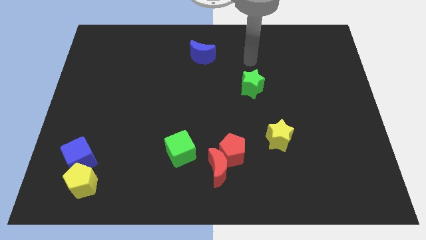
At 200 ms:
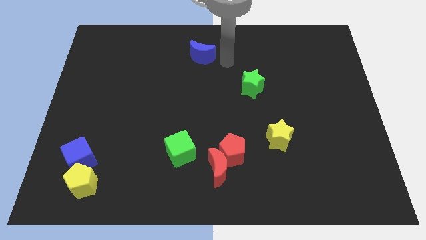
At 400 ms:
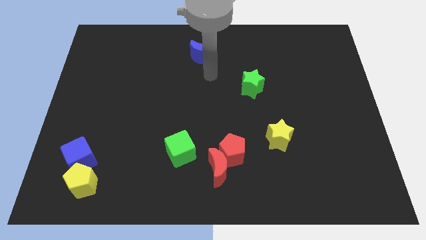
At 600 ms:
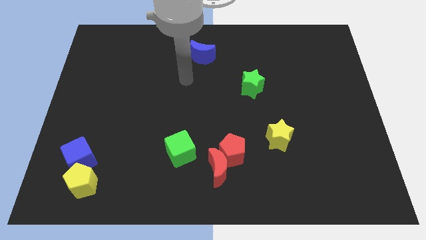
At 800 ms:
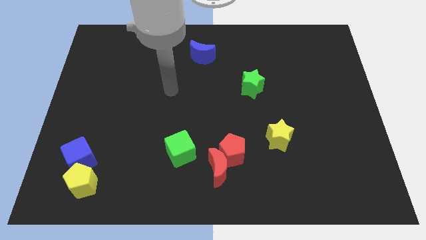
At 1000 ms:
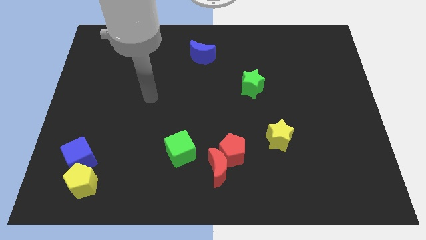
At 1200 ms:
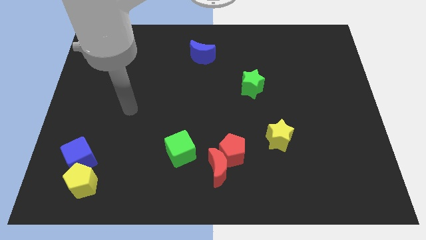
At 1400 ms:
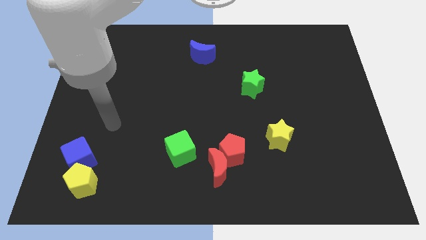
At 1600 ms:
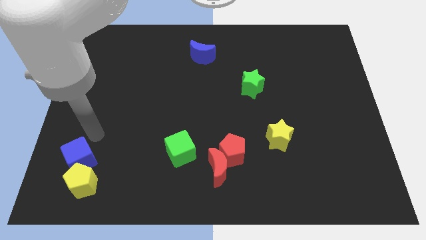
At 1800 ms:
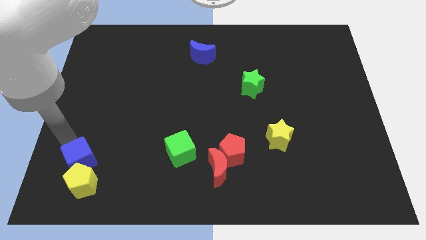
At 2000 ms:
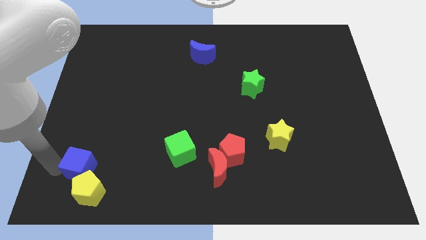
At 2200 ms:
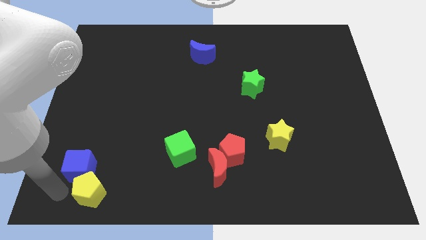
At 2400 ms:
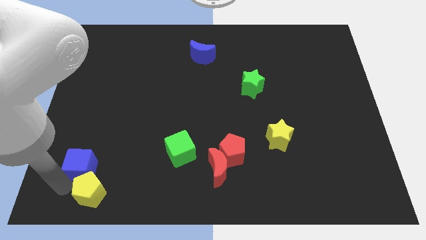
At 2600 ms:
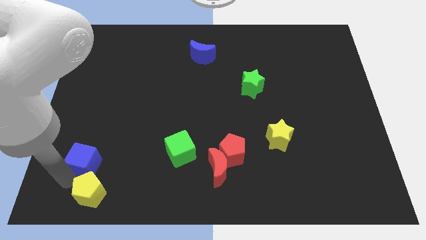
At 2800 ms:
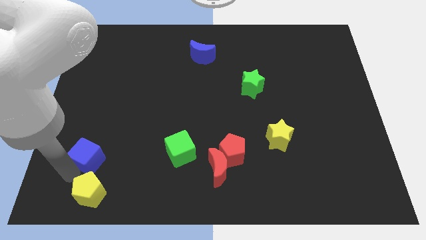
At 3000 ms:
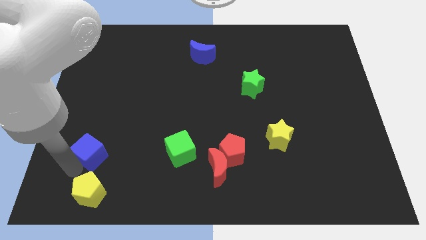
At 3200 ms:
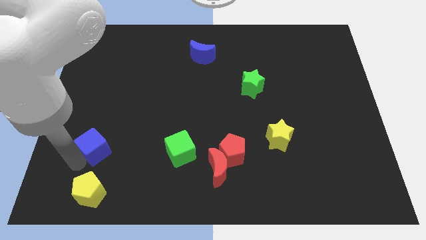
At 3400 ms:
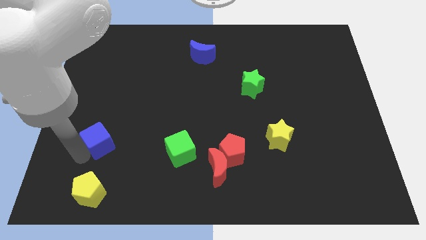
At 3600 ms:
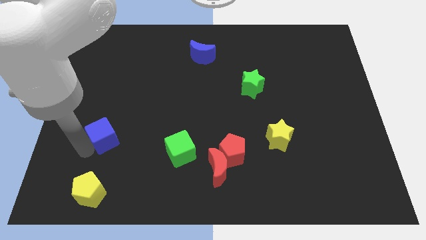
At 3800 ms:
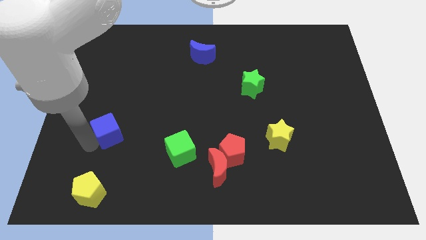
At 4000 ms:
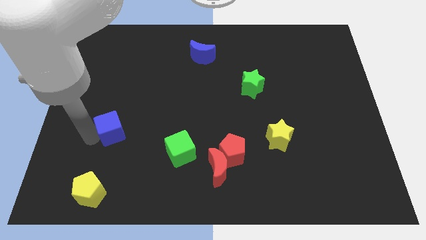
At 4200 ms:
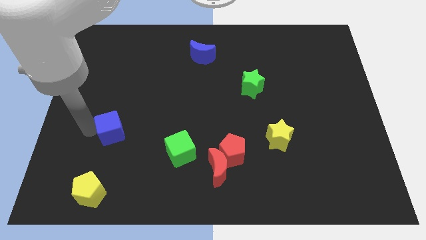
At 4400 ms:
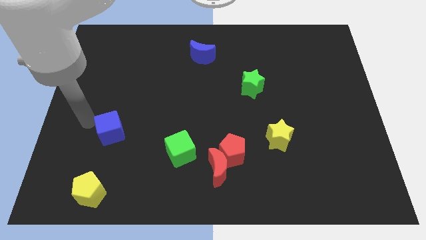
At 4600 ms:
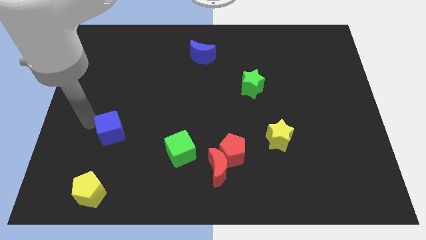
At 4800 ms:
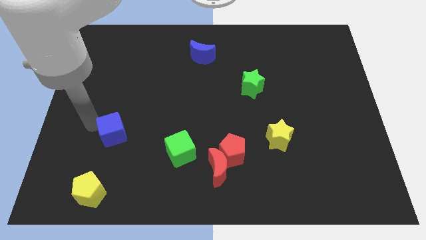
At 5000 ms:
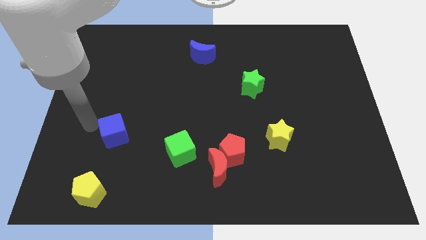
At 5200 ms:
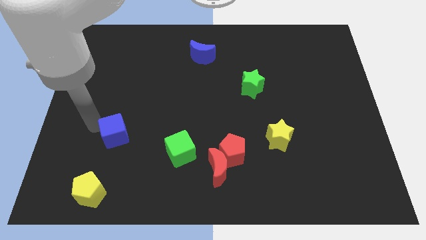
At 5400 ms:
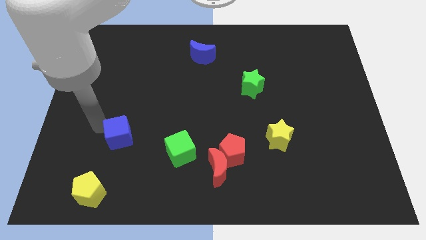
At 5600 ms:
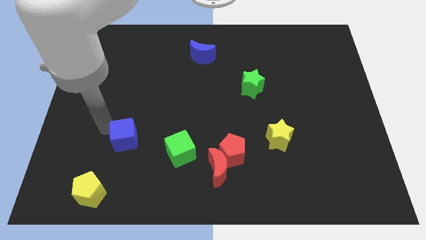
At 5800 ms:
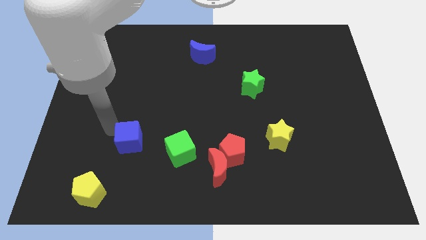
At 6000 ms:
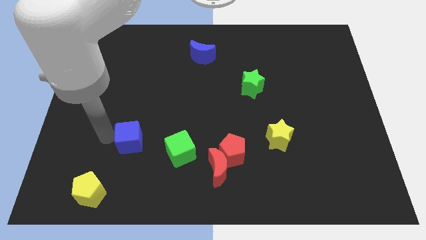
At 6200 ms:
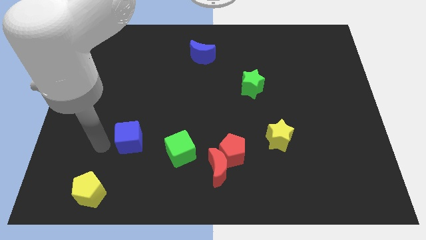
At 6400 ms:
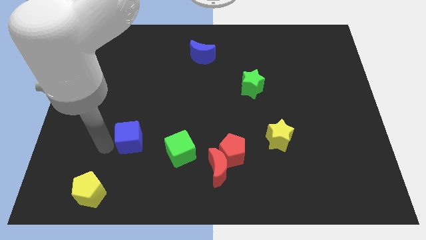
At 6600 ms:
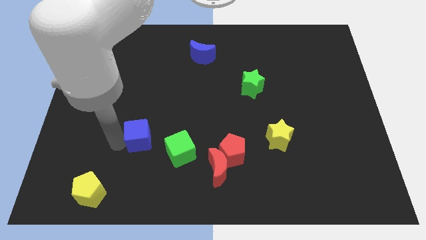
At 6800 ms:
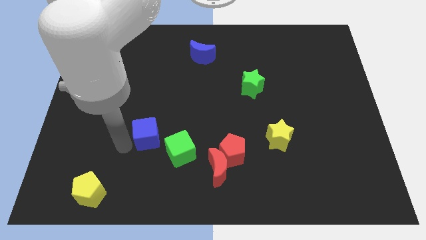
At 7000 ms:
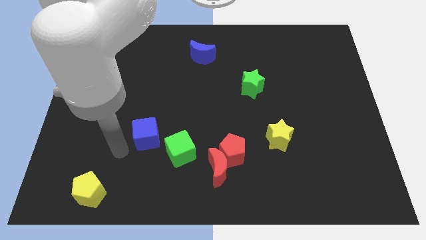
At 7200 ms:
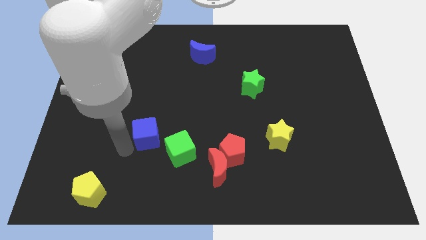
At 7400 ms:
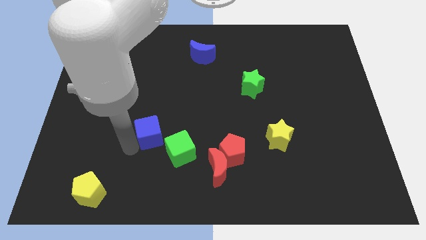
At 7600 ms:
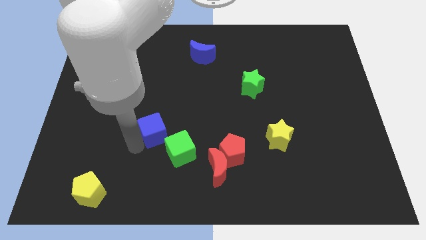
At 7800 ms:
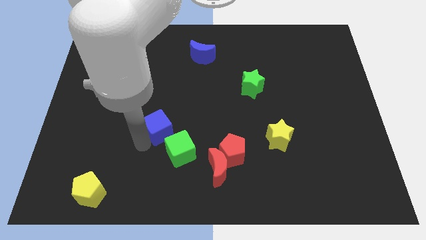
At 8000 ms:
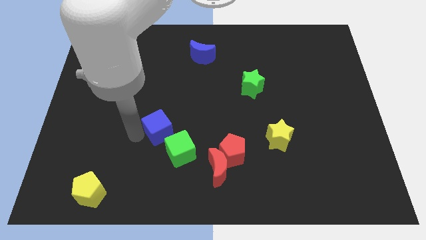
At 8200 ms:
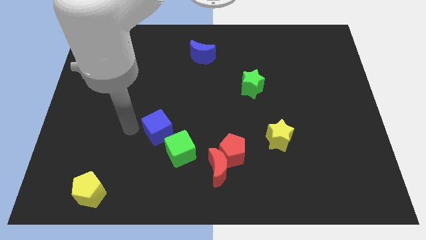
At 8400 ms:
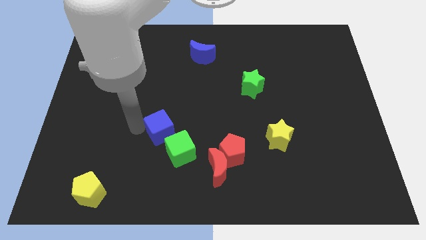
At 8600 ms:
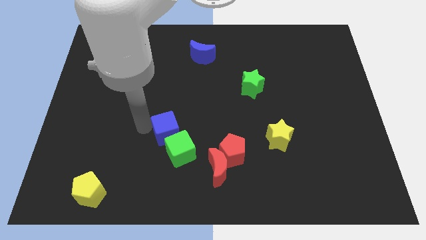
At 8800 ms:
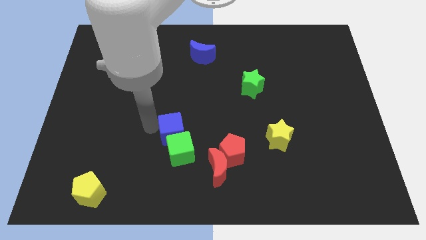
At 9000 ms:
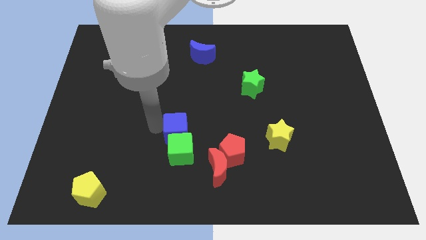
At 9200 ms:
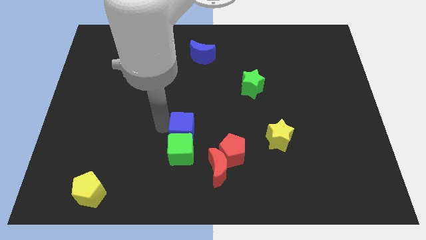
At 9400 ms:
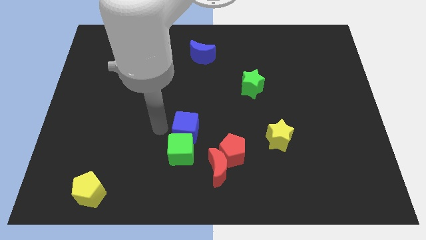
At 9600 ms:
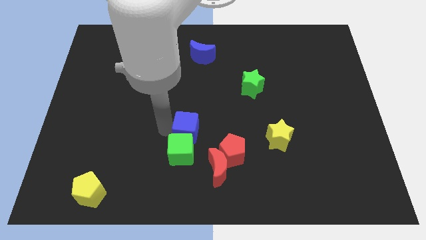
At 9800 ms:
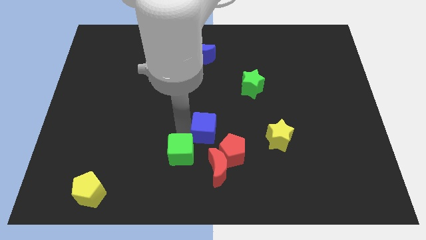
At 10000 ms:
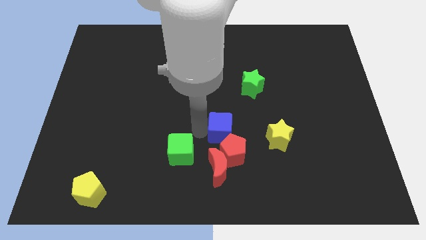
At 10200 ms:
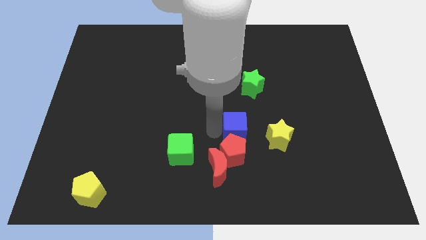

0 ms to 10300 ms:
move the blue cube to the top right of the red moon

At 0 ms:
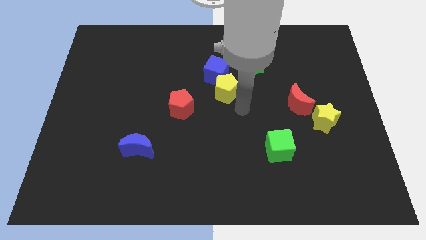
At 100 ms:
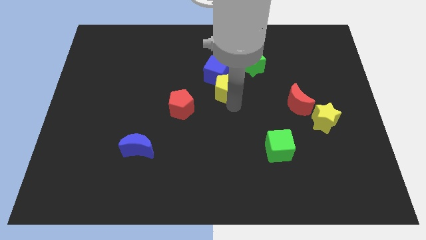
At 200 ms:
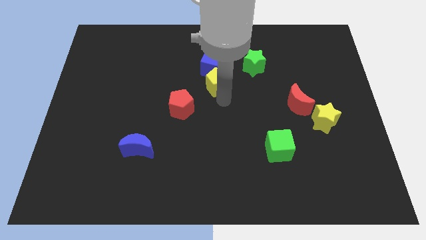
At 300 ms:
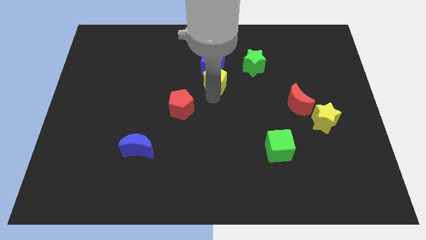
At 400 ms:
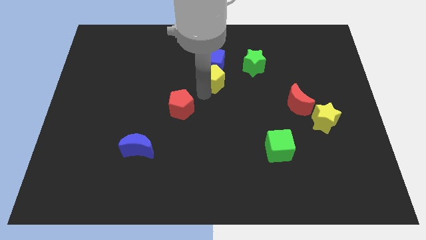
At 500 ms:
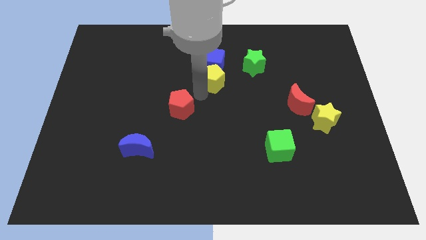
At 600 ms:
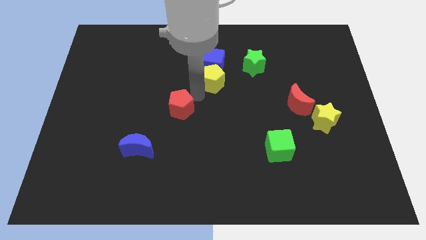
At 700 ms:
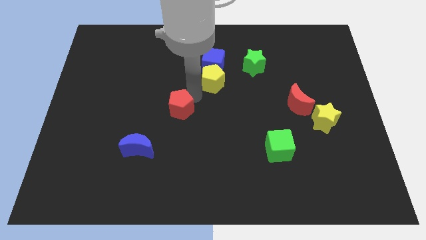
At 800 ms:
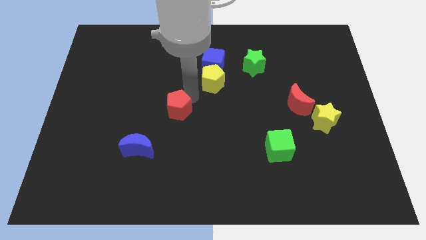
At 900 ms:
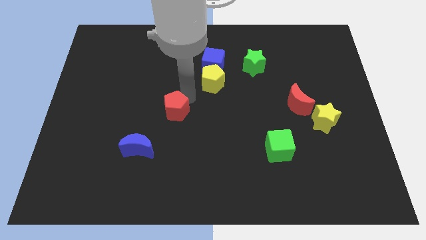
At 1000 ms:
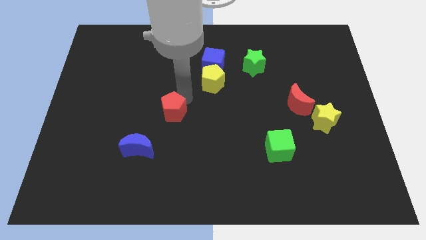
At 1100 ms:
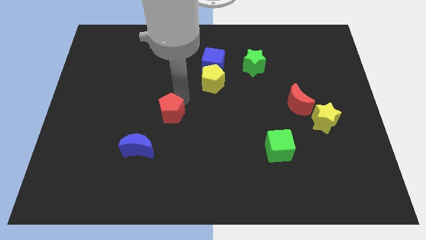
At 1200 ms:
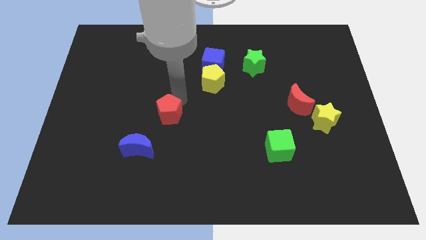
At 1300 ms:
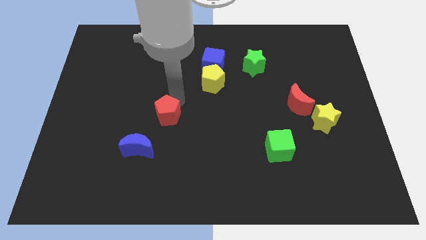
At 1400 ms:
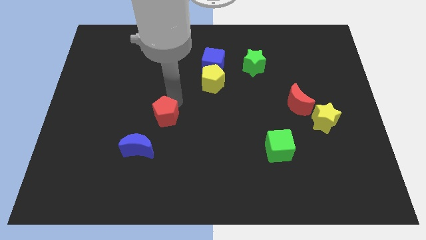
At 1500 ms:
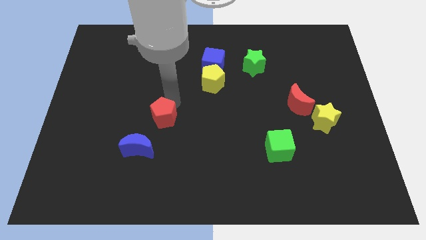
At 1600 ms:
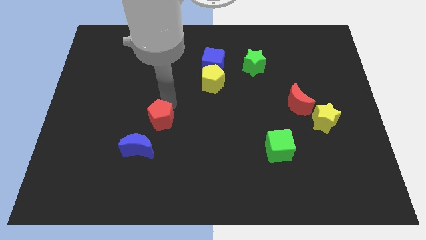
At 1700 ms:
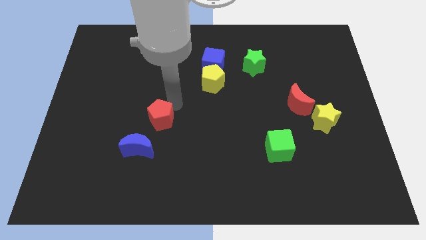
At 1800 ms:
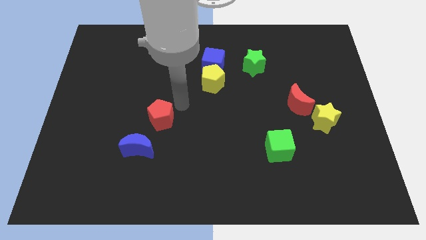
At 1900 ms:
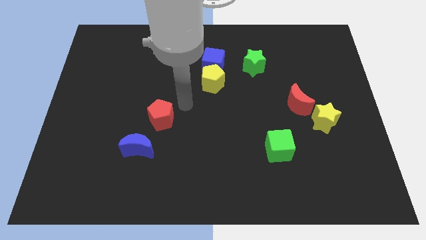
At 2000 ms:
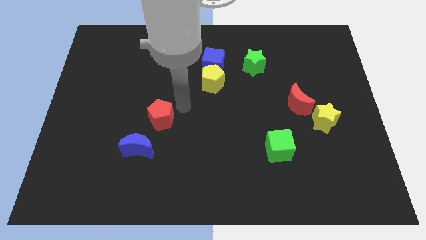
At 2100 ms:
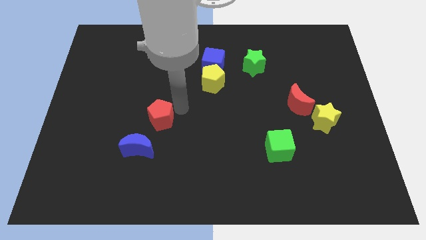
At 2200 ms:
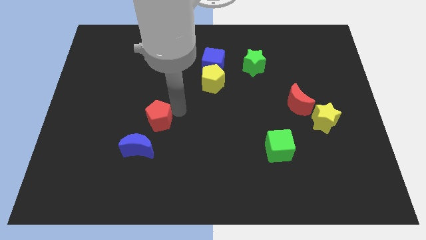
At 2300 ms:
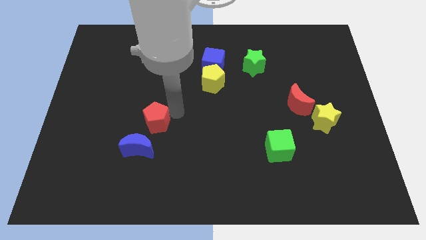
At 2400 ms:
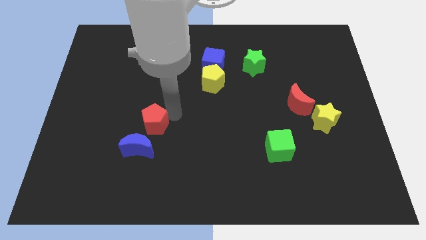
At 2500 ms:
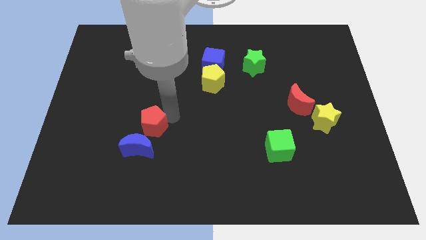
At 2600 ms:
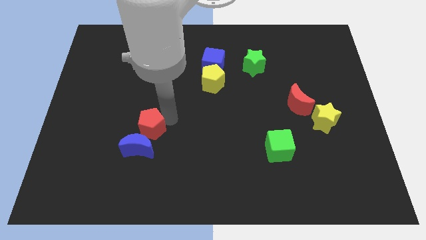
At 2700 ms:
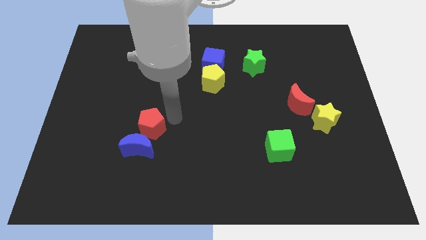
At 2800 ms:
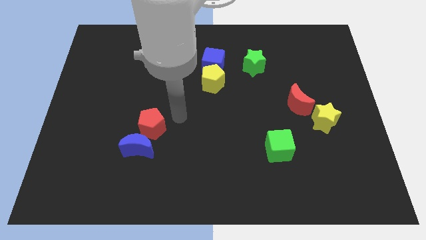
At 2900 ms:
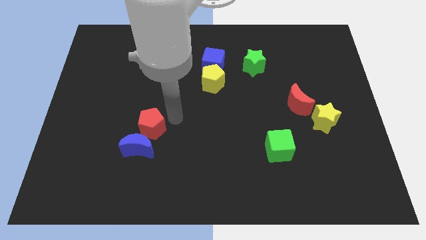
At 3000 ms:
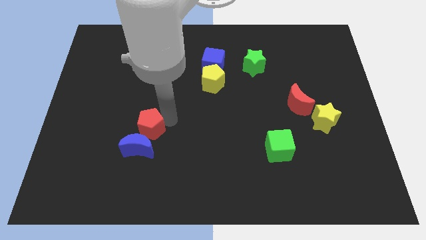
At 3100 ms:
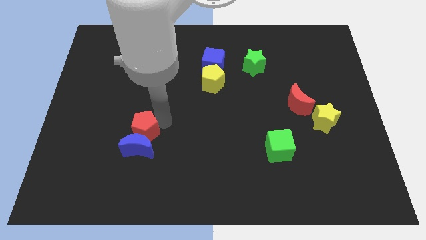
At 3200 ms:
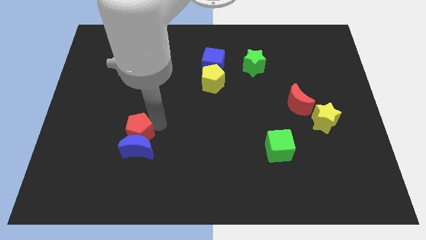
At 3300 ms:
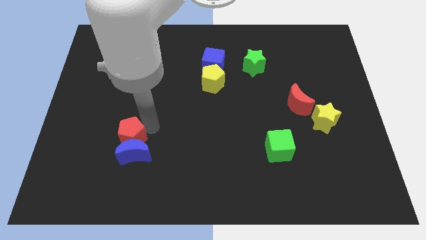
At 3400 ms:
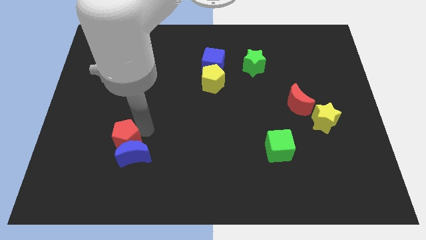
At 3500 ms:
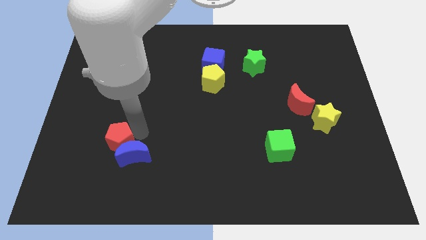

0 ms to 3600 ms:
slide the red pentagon just left of the blue moon
